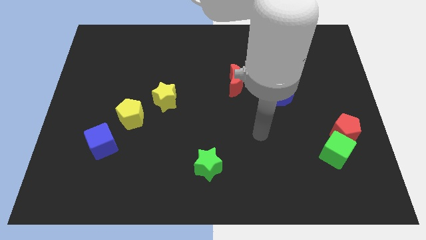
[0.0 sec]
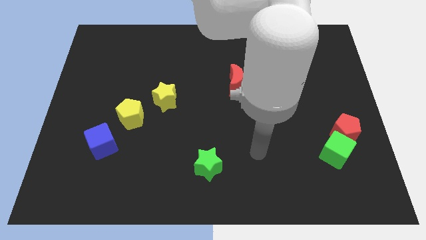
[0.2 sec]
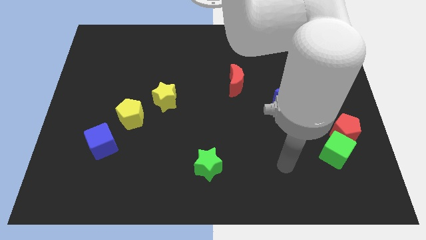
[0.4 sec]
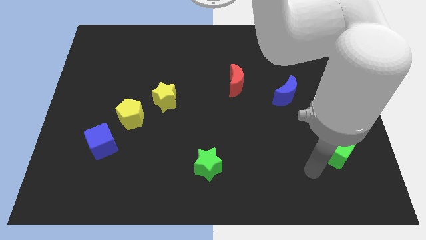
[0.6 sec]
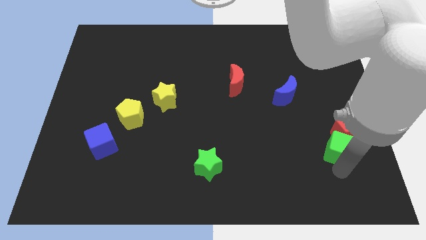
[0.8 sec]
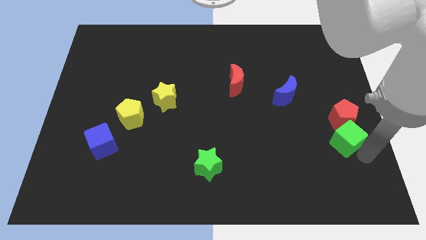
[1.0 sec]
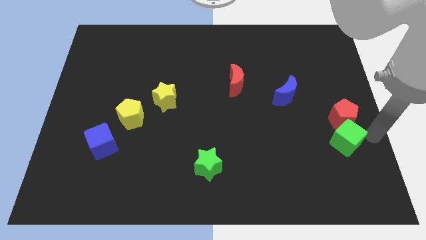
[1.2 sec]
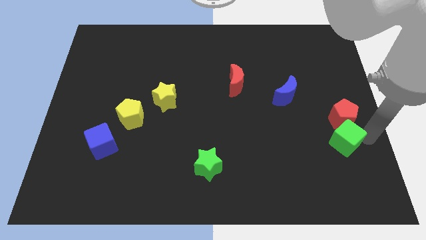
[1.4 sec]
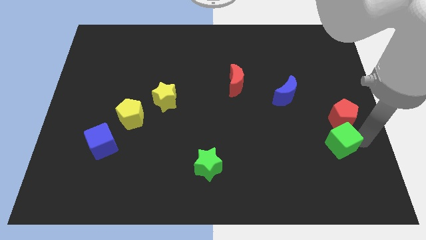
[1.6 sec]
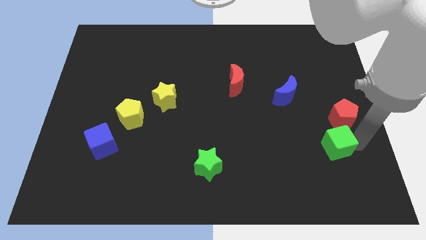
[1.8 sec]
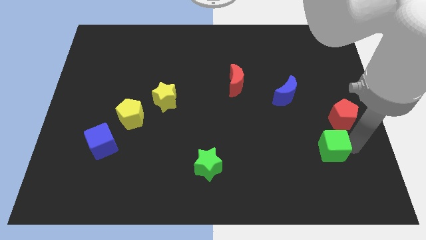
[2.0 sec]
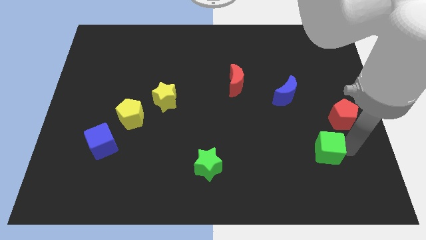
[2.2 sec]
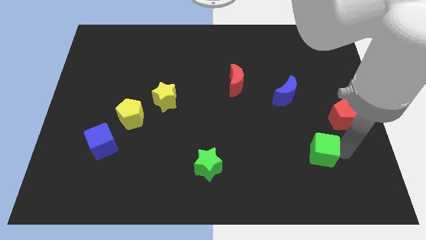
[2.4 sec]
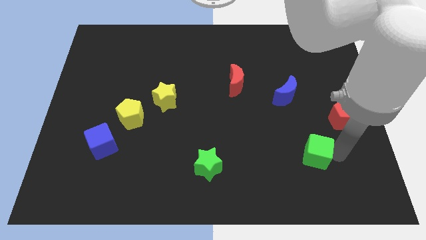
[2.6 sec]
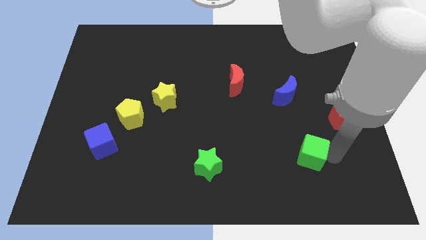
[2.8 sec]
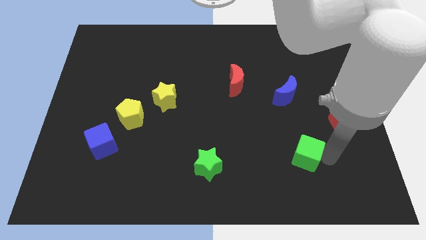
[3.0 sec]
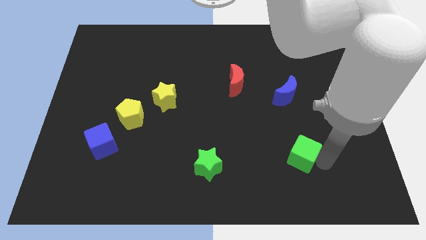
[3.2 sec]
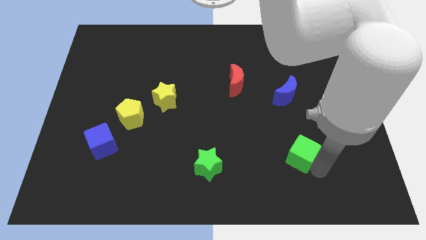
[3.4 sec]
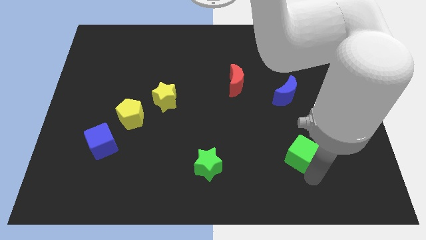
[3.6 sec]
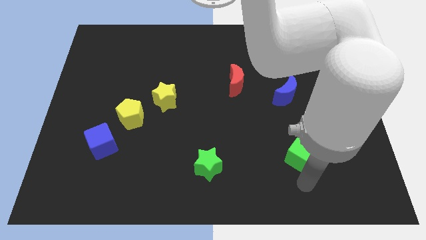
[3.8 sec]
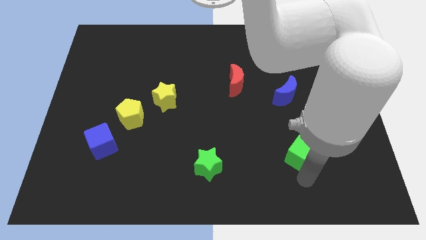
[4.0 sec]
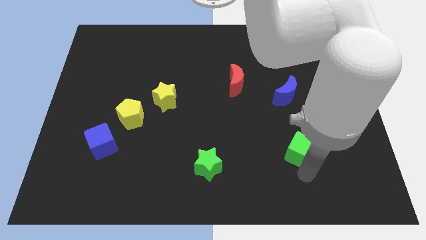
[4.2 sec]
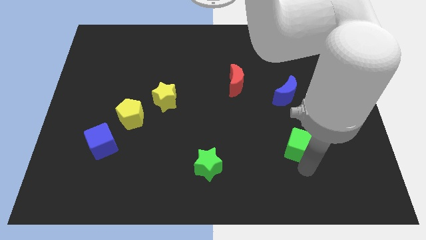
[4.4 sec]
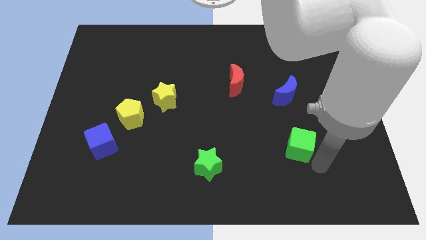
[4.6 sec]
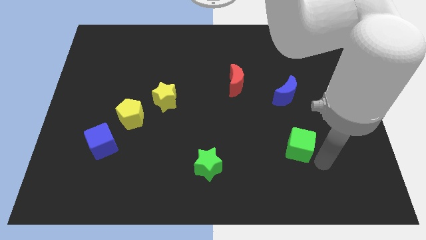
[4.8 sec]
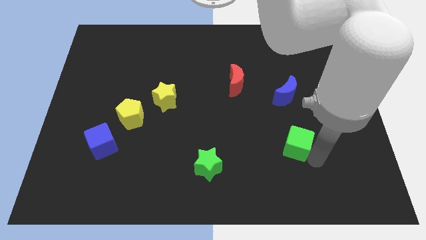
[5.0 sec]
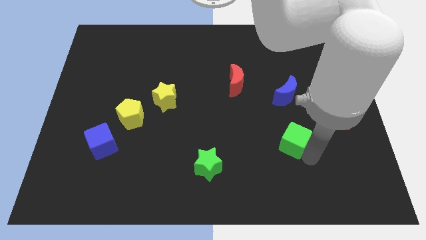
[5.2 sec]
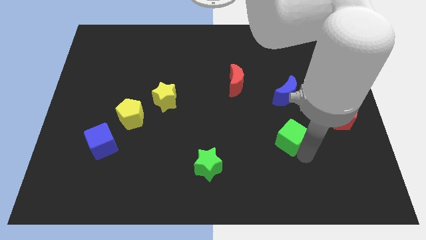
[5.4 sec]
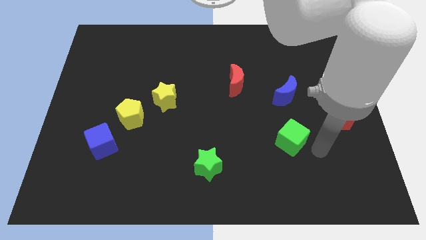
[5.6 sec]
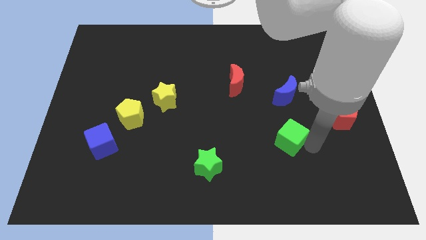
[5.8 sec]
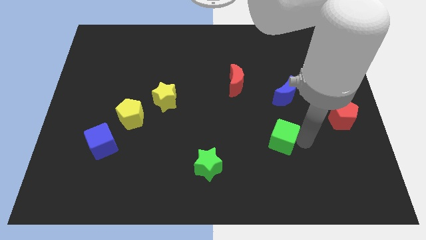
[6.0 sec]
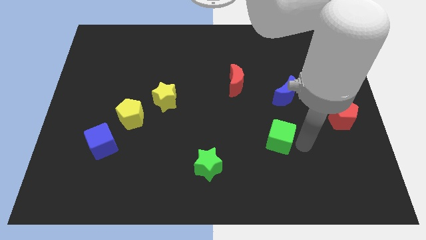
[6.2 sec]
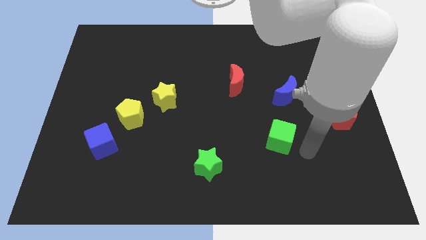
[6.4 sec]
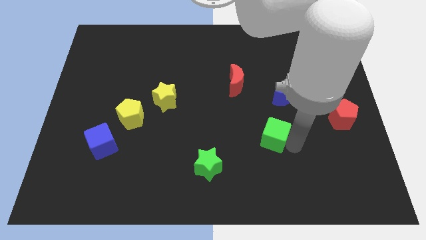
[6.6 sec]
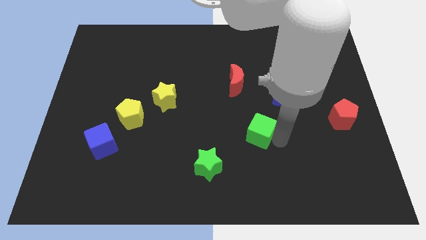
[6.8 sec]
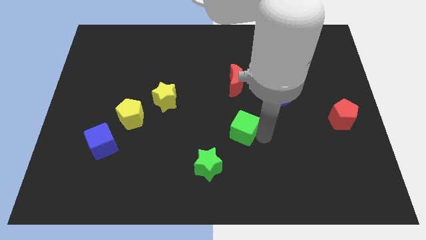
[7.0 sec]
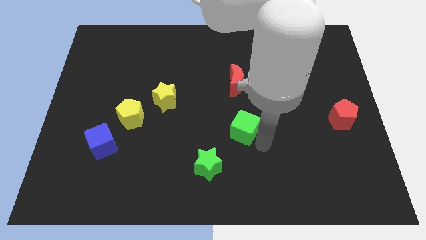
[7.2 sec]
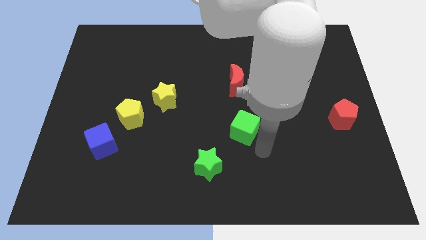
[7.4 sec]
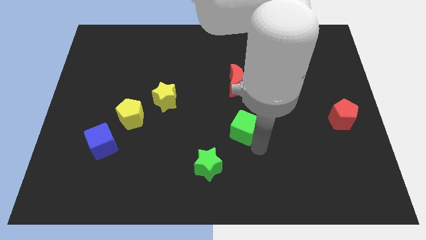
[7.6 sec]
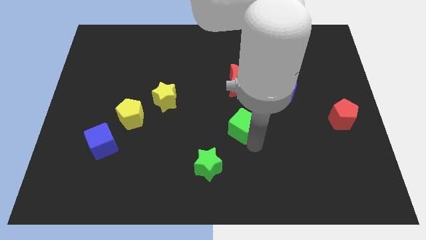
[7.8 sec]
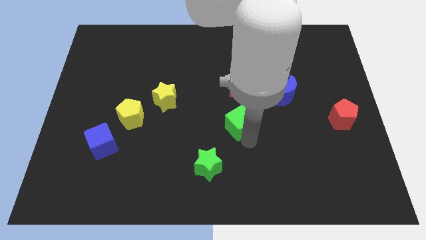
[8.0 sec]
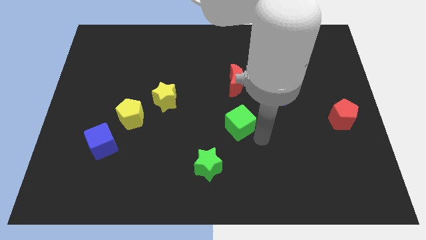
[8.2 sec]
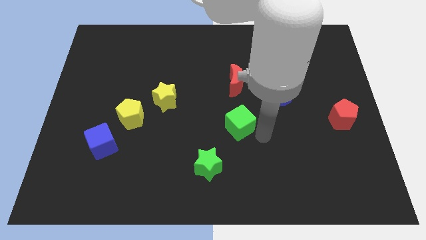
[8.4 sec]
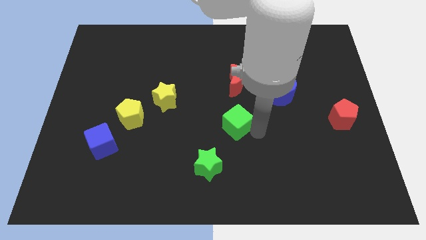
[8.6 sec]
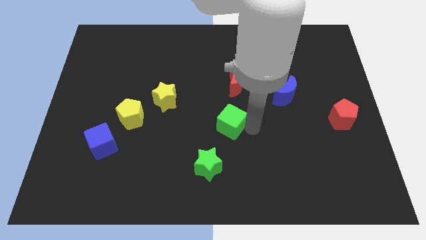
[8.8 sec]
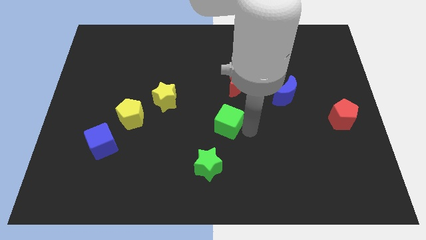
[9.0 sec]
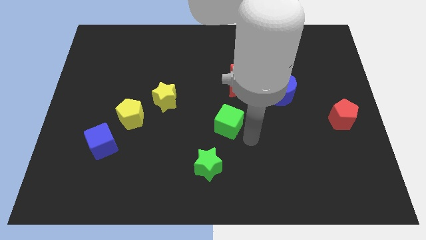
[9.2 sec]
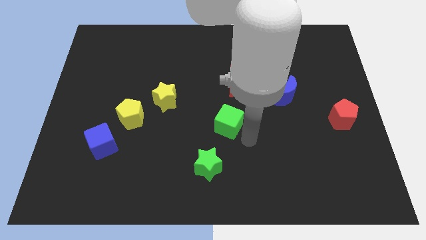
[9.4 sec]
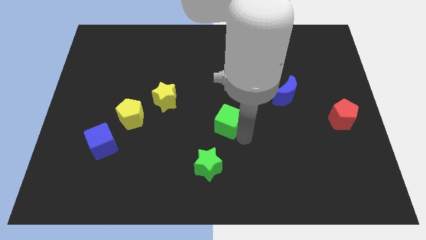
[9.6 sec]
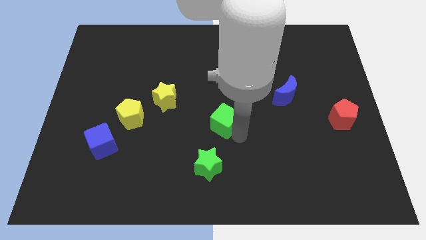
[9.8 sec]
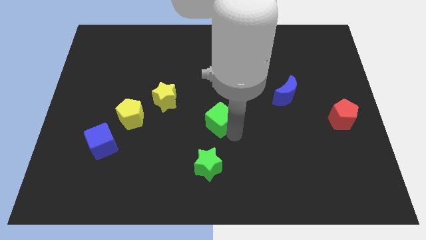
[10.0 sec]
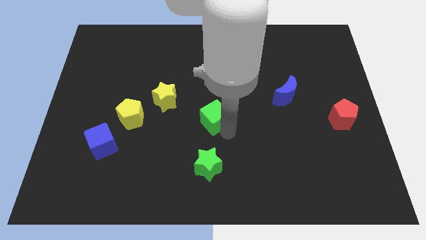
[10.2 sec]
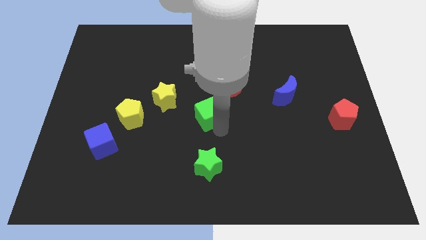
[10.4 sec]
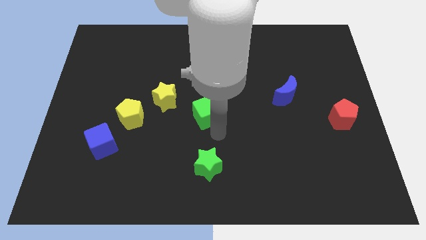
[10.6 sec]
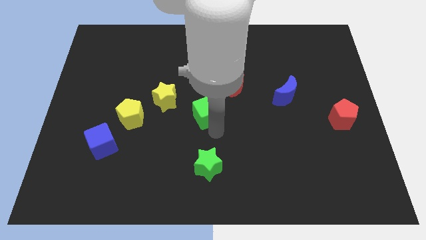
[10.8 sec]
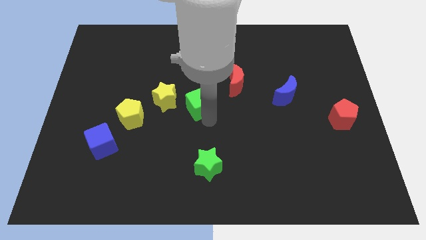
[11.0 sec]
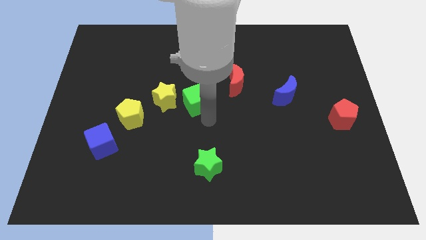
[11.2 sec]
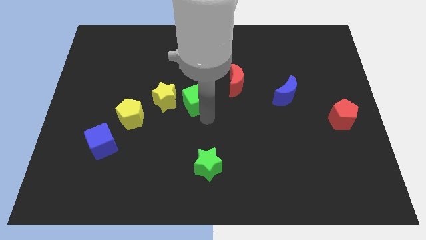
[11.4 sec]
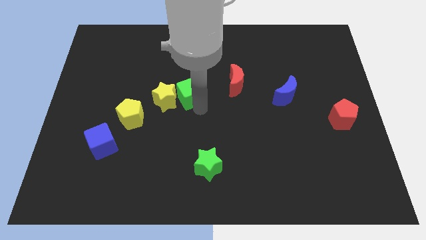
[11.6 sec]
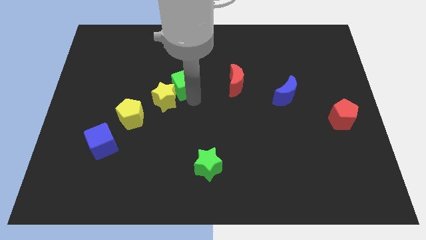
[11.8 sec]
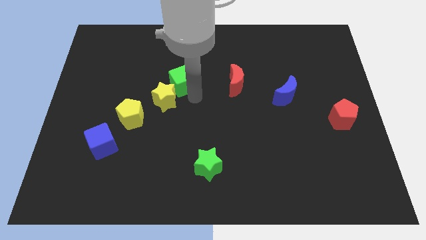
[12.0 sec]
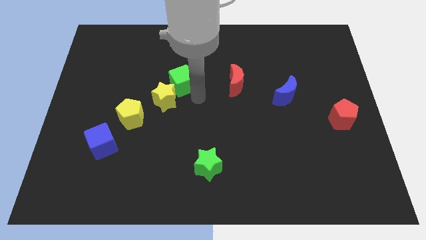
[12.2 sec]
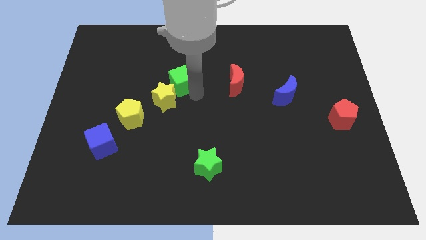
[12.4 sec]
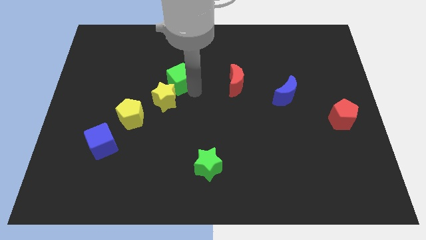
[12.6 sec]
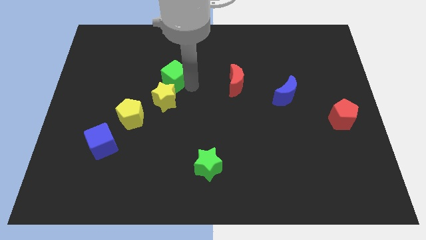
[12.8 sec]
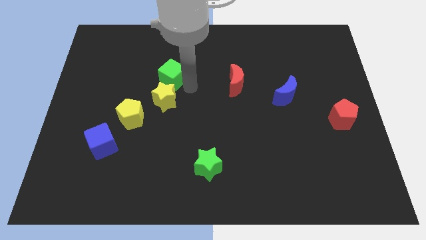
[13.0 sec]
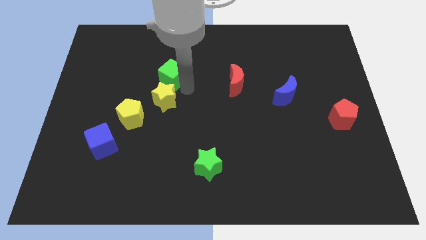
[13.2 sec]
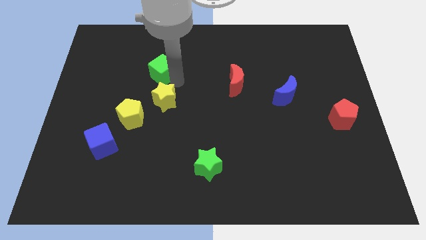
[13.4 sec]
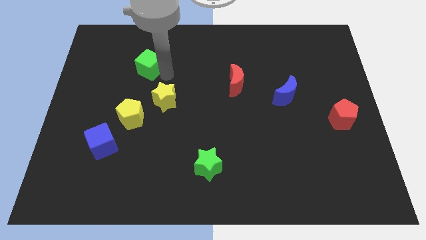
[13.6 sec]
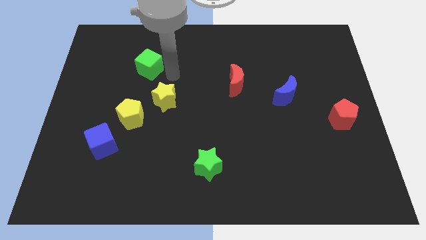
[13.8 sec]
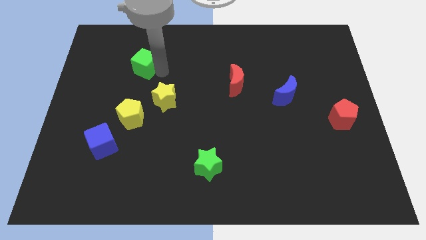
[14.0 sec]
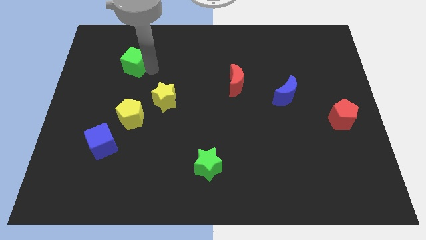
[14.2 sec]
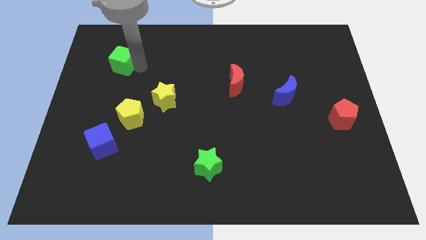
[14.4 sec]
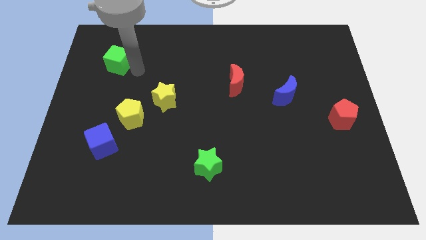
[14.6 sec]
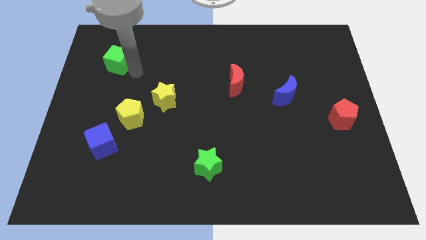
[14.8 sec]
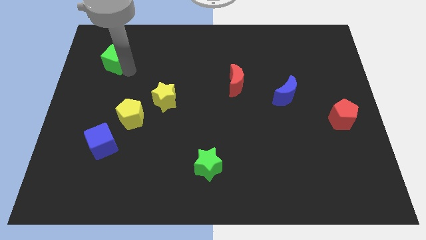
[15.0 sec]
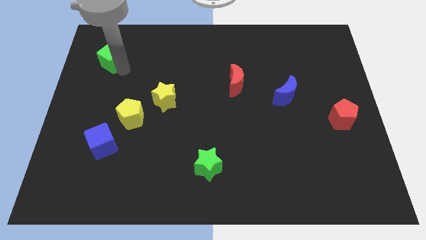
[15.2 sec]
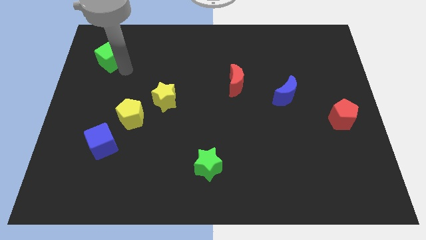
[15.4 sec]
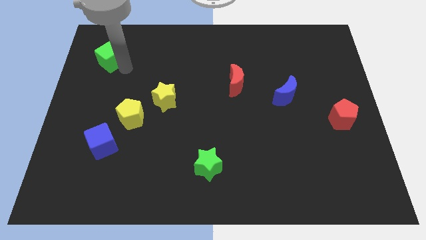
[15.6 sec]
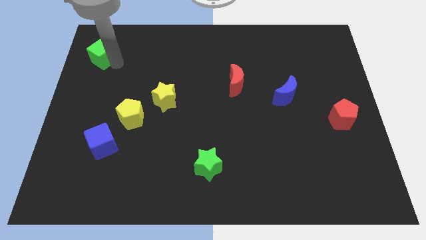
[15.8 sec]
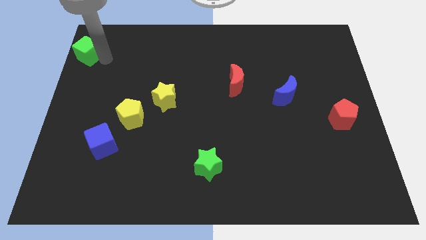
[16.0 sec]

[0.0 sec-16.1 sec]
put the green cube to the upper left corner
